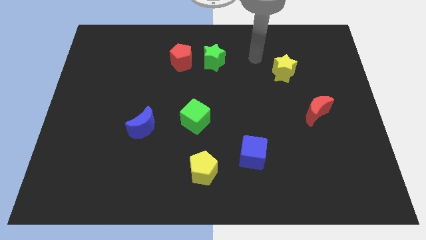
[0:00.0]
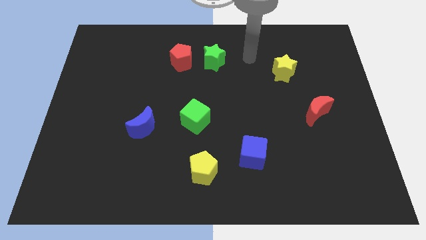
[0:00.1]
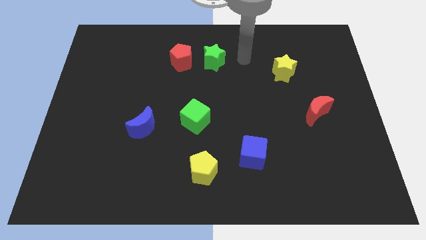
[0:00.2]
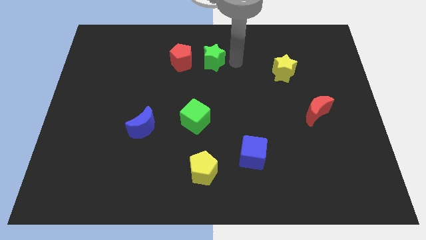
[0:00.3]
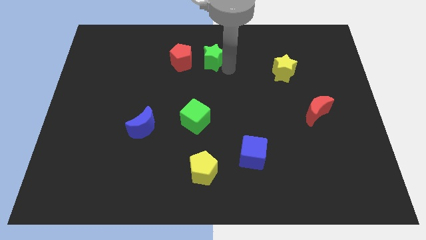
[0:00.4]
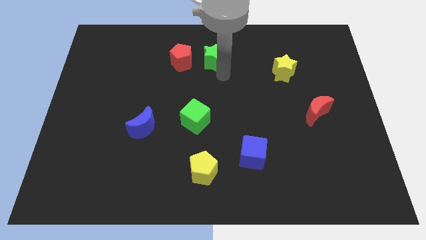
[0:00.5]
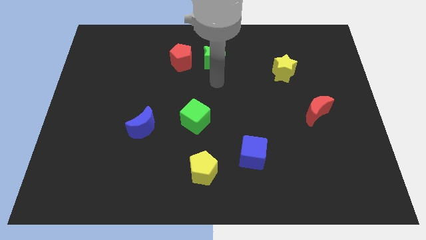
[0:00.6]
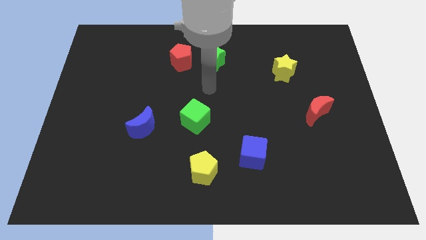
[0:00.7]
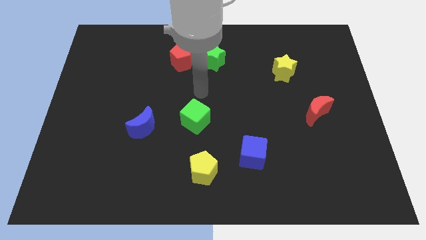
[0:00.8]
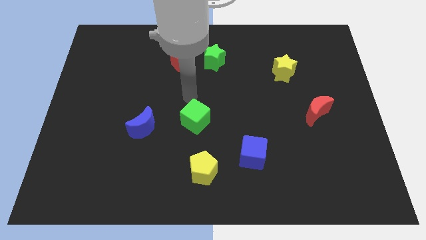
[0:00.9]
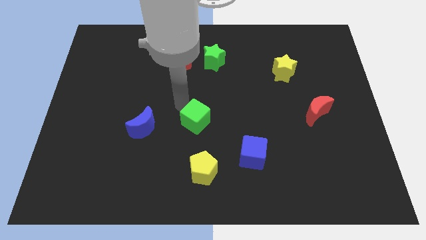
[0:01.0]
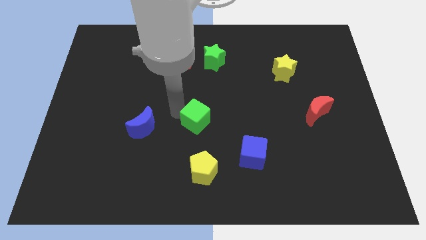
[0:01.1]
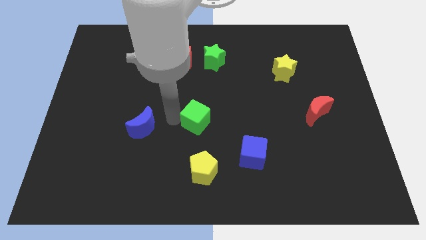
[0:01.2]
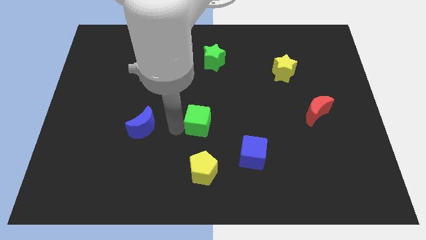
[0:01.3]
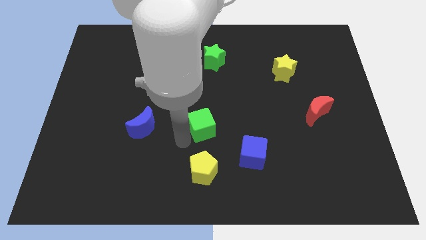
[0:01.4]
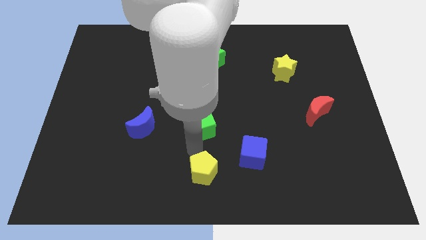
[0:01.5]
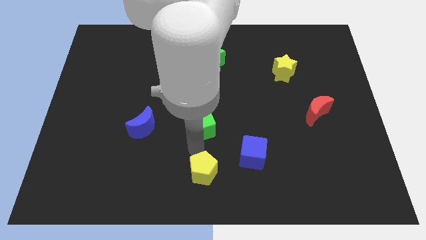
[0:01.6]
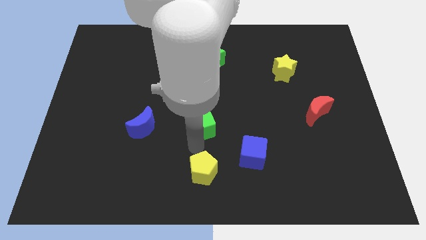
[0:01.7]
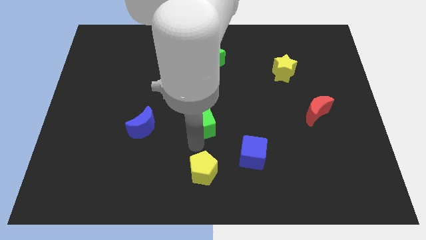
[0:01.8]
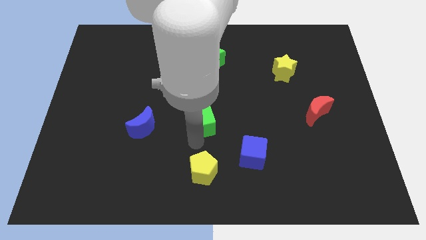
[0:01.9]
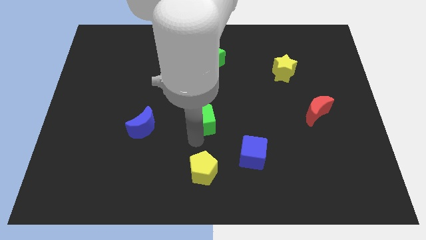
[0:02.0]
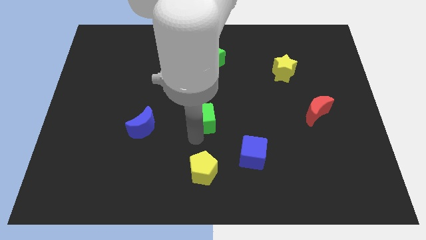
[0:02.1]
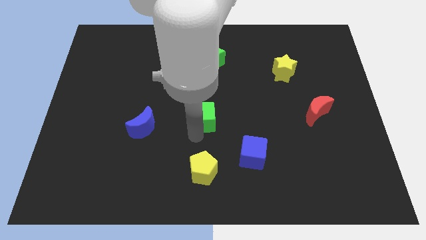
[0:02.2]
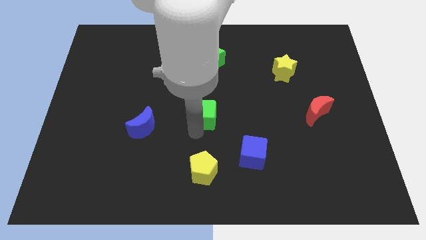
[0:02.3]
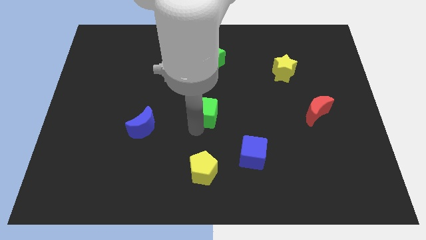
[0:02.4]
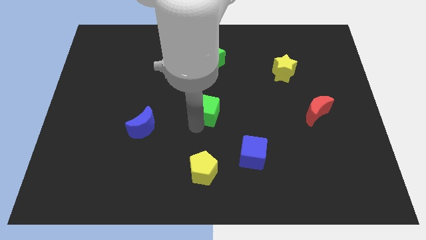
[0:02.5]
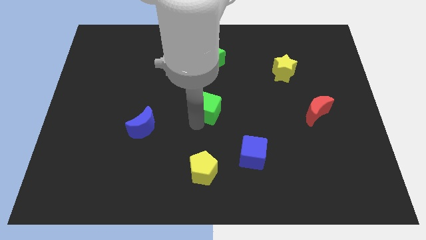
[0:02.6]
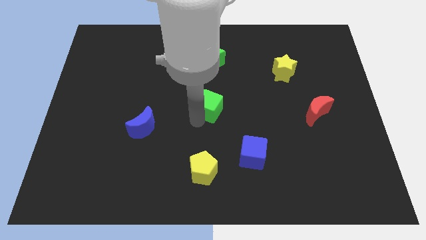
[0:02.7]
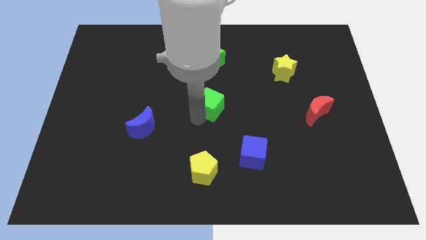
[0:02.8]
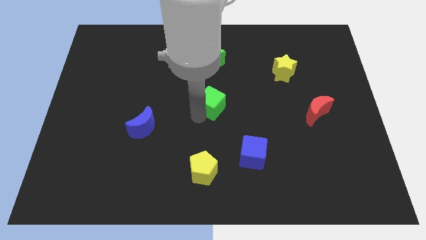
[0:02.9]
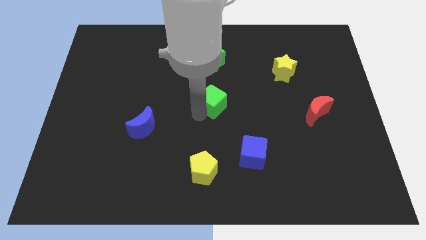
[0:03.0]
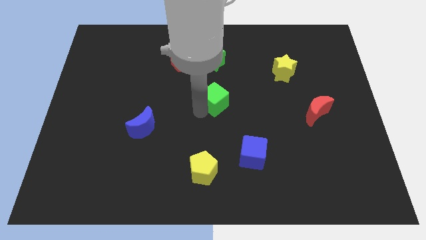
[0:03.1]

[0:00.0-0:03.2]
slightly slide the green cube up and right

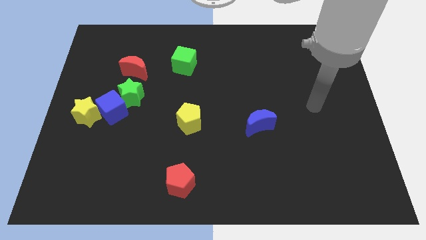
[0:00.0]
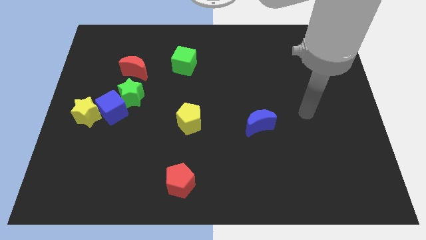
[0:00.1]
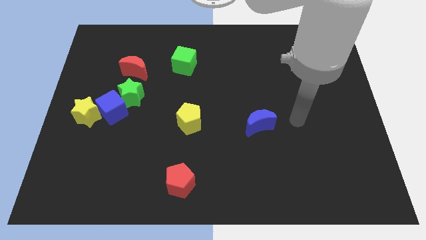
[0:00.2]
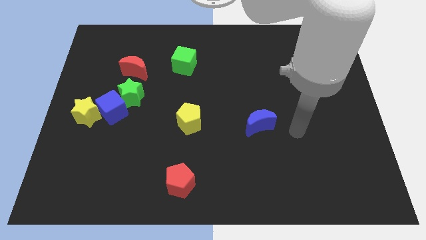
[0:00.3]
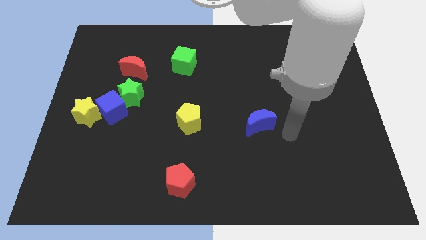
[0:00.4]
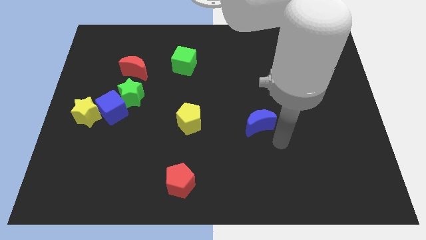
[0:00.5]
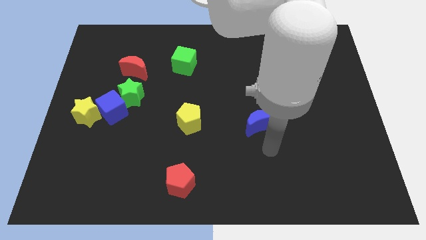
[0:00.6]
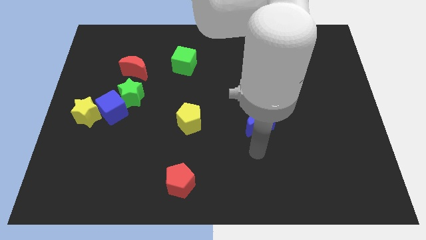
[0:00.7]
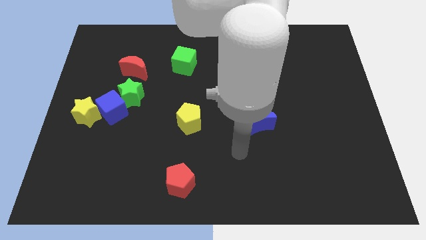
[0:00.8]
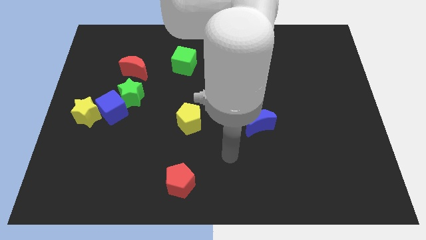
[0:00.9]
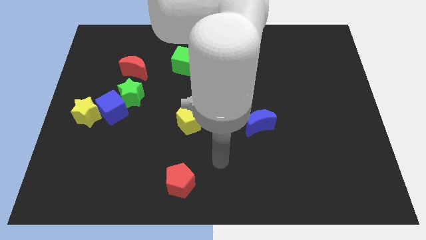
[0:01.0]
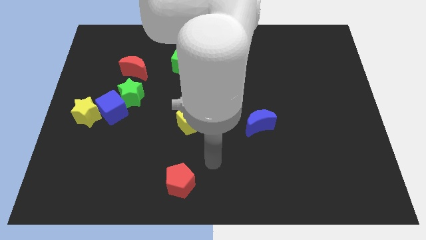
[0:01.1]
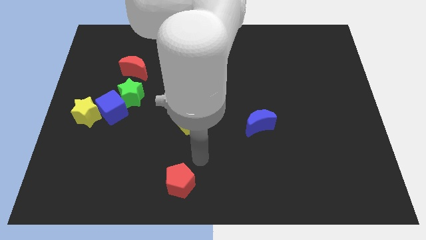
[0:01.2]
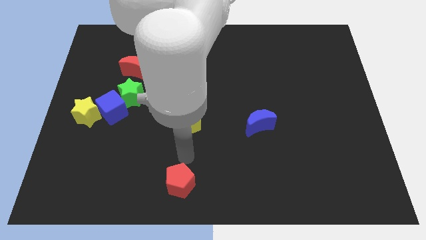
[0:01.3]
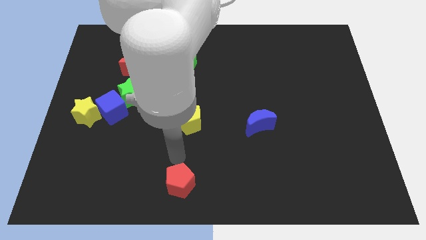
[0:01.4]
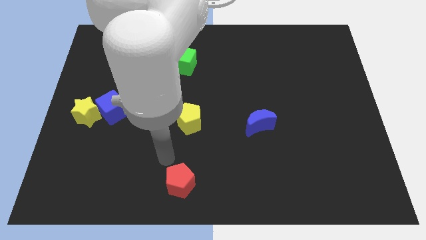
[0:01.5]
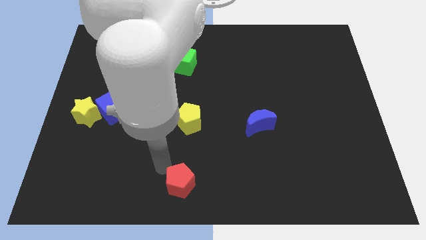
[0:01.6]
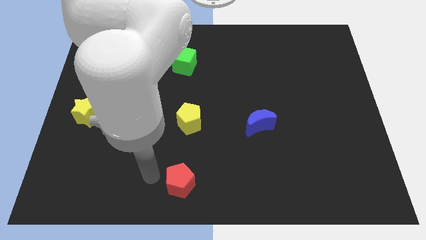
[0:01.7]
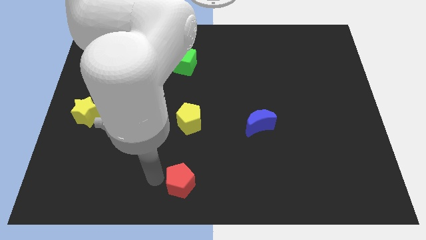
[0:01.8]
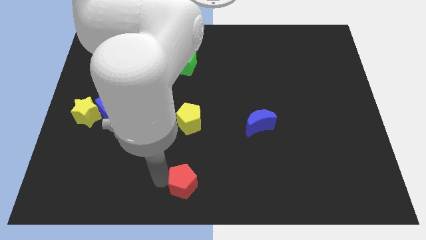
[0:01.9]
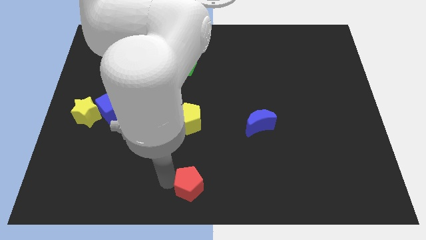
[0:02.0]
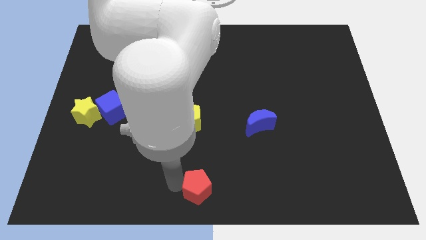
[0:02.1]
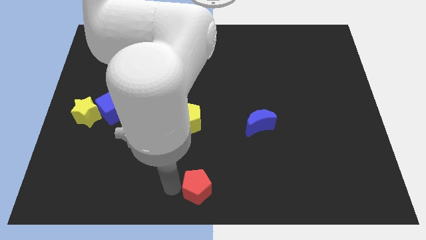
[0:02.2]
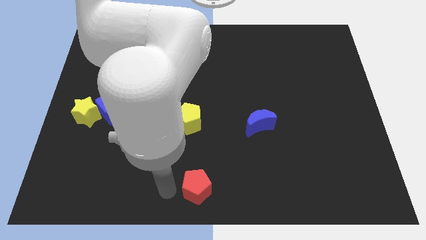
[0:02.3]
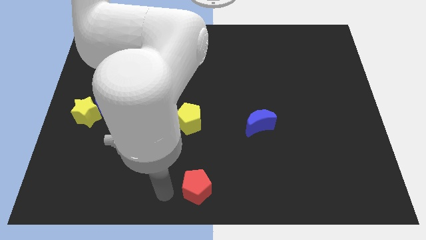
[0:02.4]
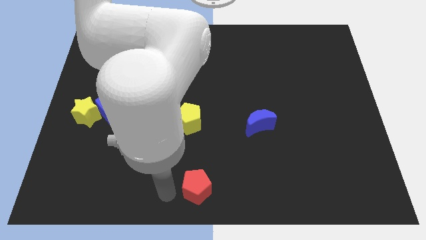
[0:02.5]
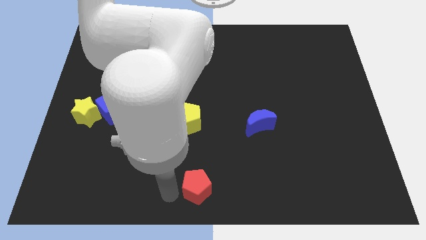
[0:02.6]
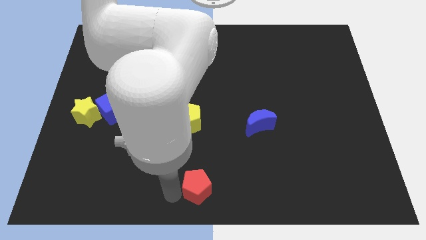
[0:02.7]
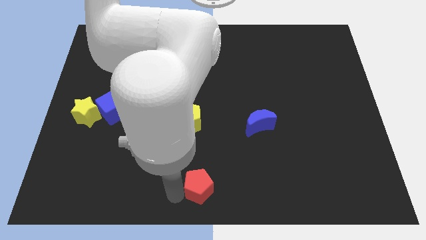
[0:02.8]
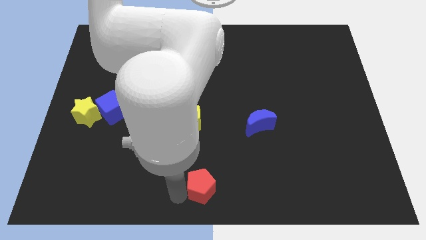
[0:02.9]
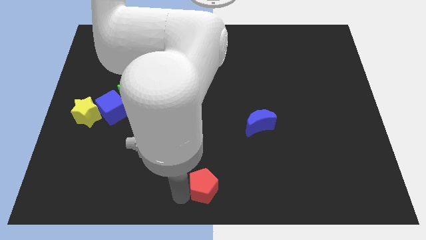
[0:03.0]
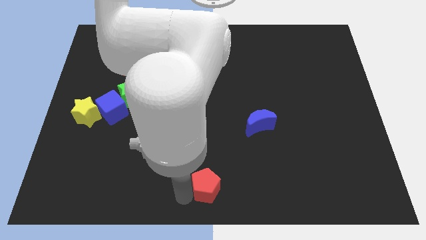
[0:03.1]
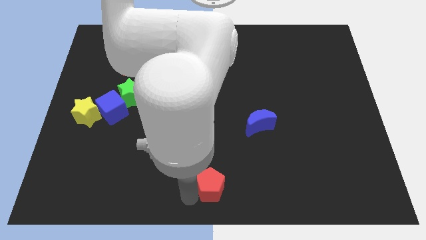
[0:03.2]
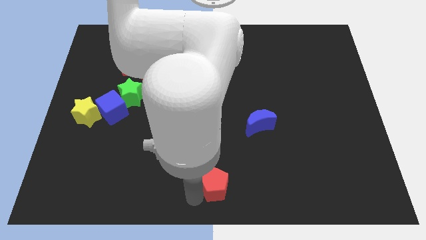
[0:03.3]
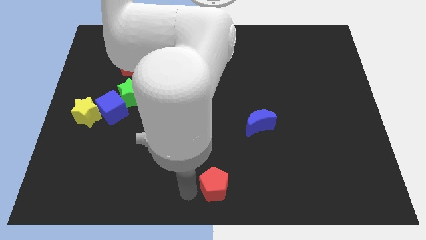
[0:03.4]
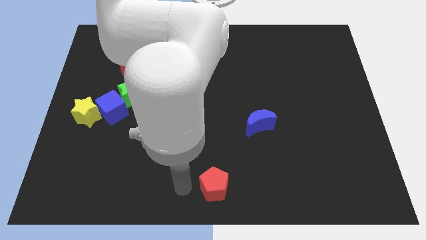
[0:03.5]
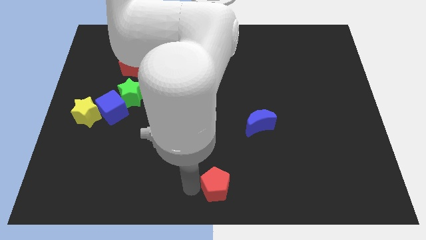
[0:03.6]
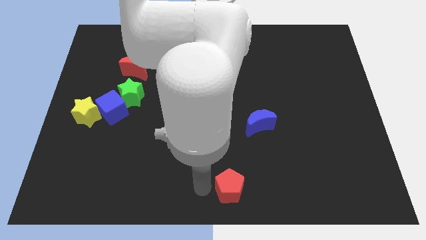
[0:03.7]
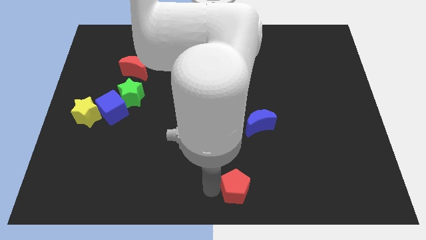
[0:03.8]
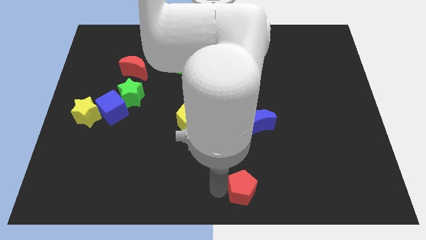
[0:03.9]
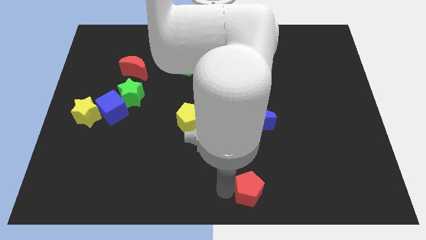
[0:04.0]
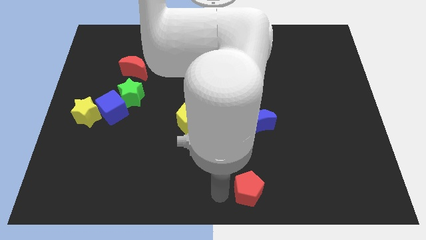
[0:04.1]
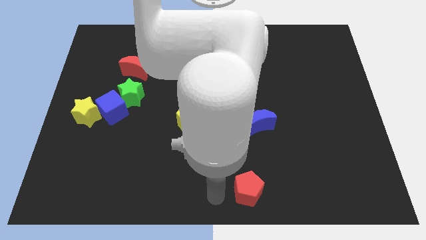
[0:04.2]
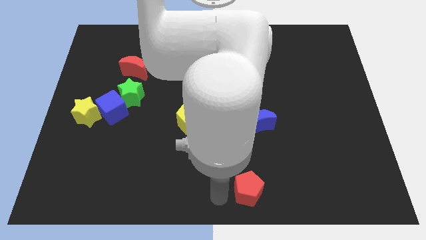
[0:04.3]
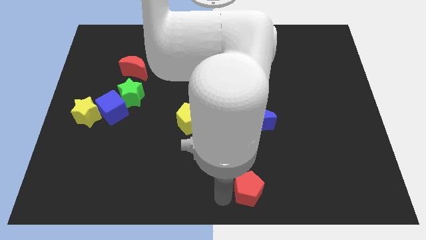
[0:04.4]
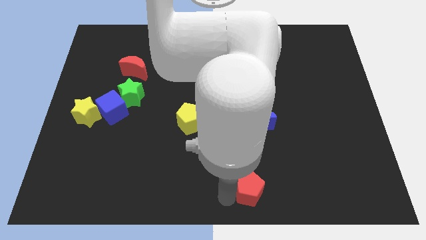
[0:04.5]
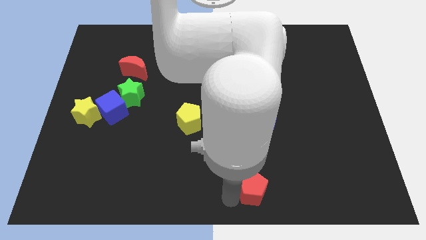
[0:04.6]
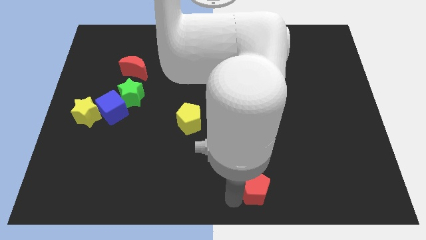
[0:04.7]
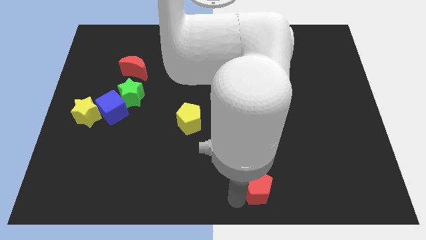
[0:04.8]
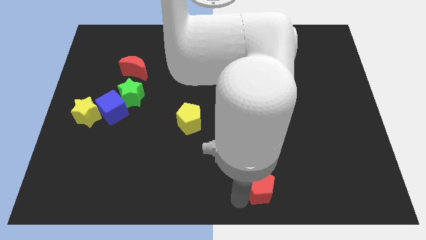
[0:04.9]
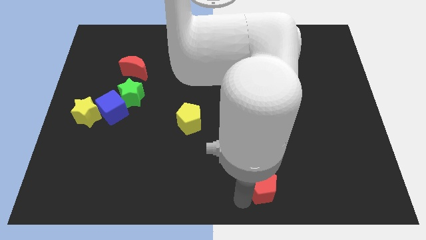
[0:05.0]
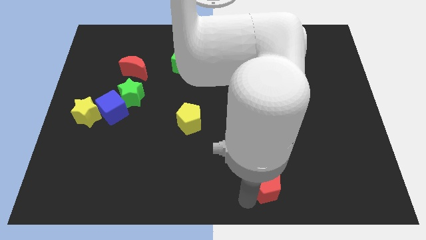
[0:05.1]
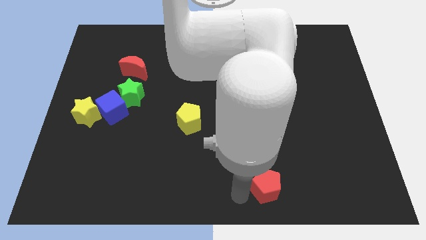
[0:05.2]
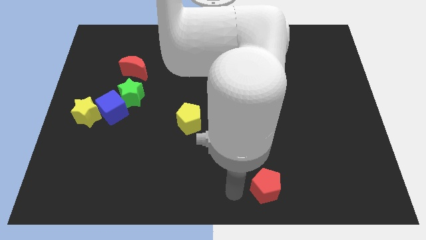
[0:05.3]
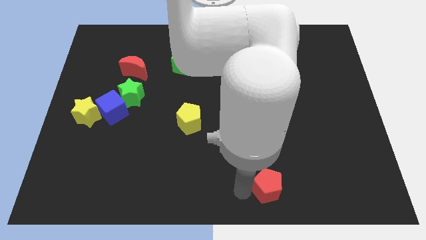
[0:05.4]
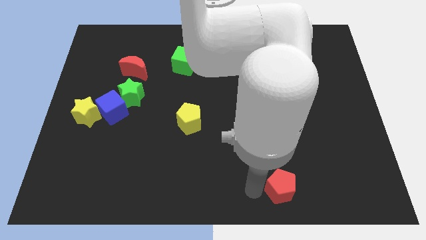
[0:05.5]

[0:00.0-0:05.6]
slide the red pentagon to the right
